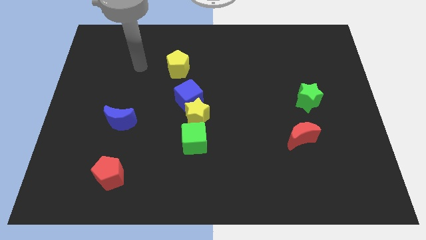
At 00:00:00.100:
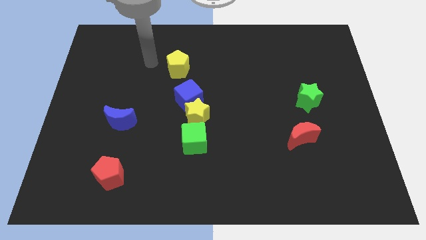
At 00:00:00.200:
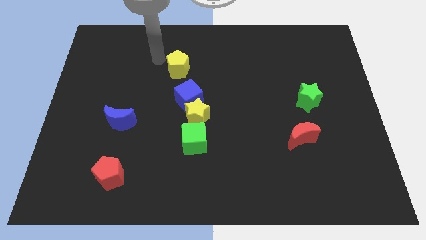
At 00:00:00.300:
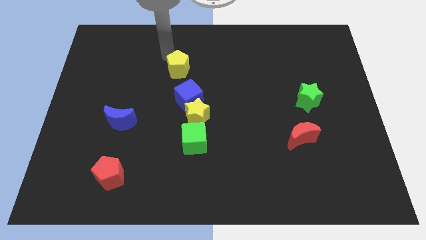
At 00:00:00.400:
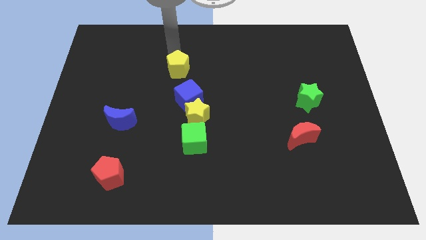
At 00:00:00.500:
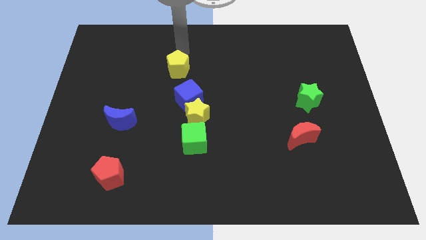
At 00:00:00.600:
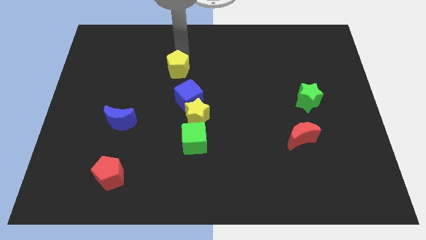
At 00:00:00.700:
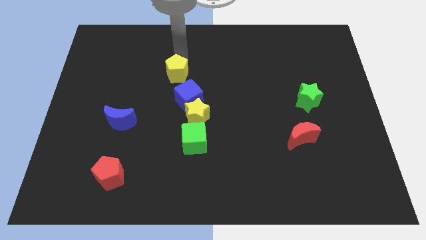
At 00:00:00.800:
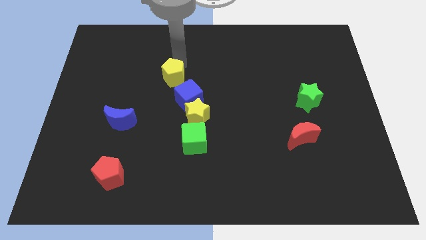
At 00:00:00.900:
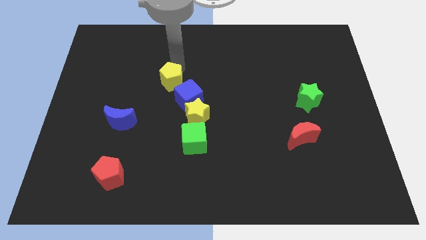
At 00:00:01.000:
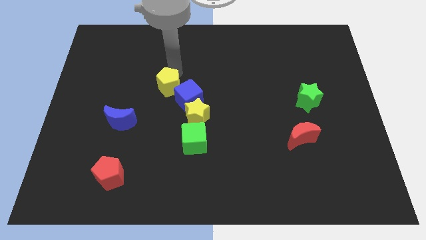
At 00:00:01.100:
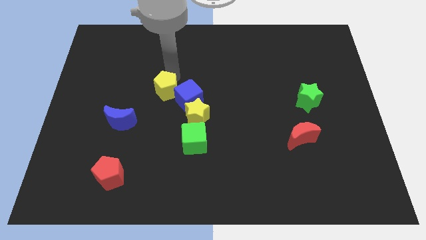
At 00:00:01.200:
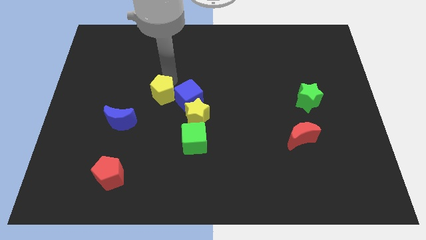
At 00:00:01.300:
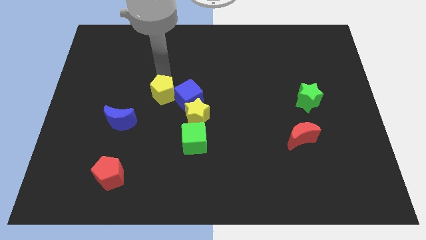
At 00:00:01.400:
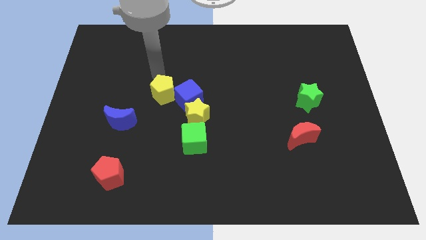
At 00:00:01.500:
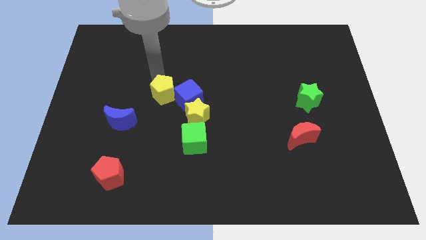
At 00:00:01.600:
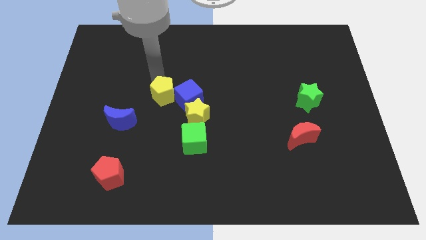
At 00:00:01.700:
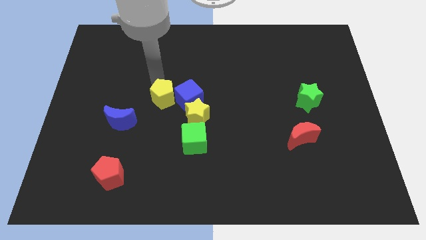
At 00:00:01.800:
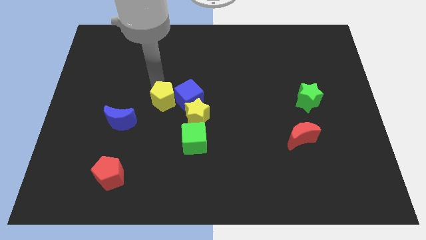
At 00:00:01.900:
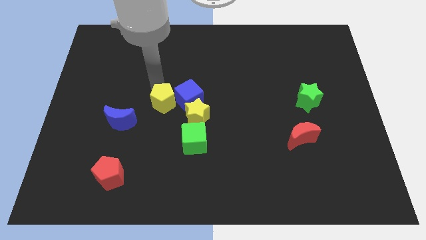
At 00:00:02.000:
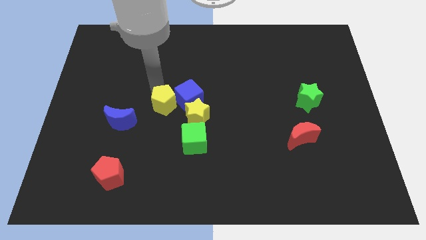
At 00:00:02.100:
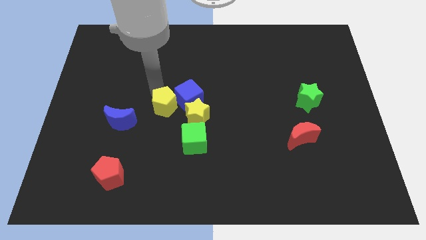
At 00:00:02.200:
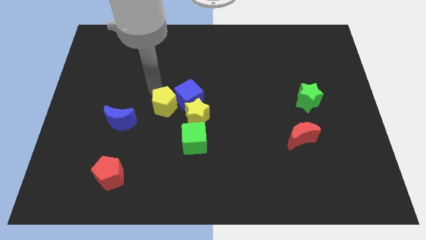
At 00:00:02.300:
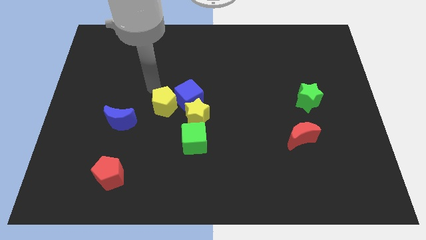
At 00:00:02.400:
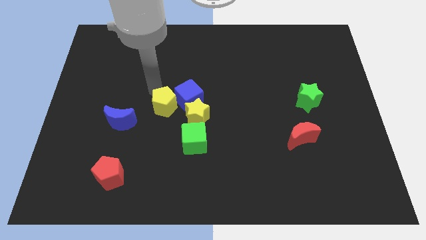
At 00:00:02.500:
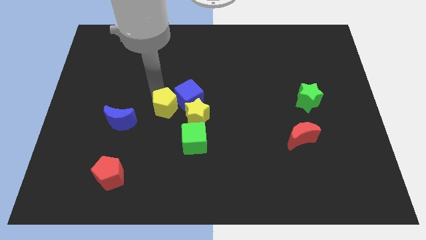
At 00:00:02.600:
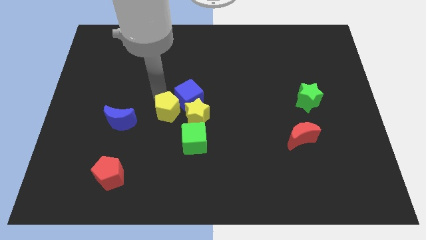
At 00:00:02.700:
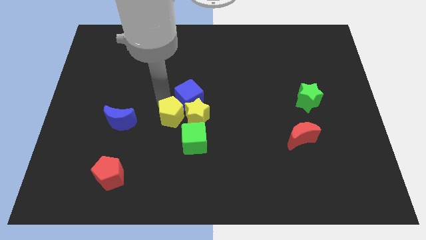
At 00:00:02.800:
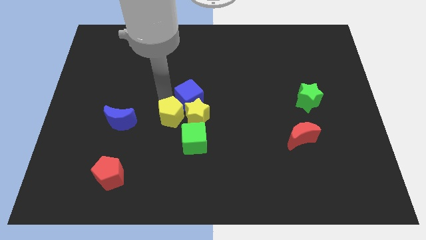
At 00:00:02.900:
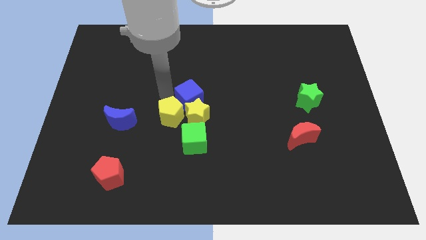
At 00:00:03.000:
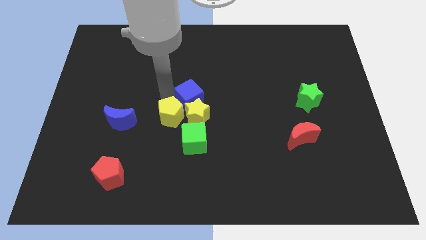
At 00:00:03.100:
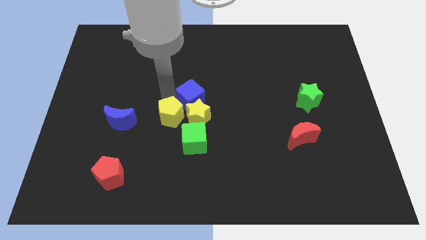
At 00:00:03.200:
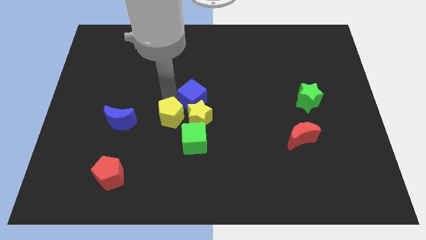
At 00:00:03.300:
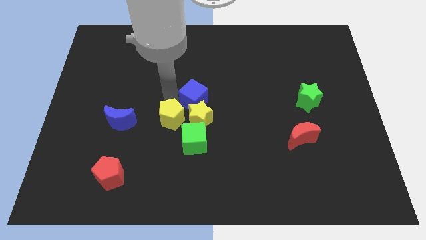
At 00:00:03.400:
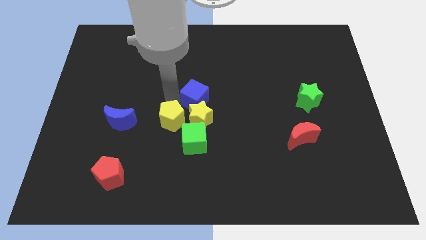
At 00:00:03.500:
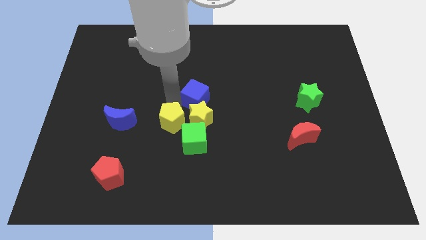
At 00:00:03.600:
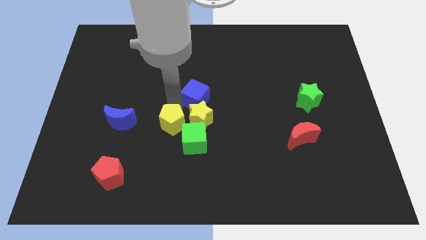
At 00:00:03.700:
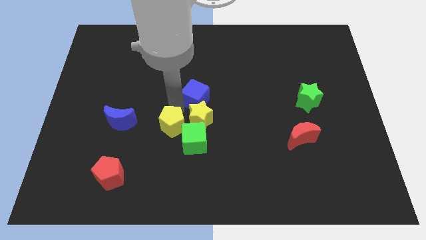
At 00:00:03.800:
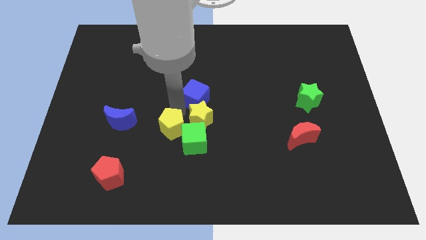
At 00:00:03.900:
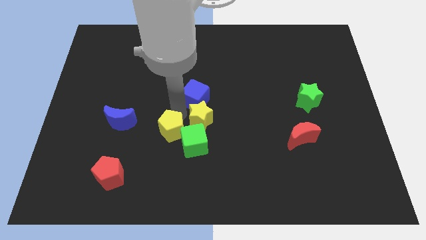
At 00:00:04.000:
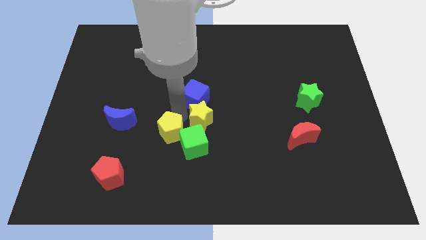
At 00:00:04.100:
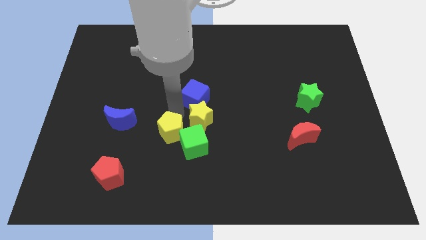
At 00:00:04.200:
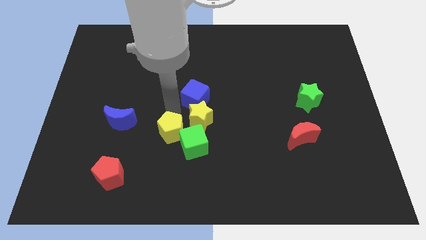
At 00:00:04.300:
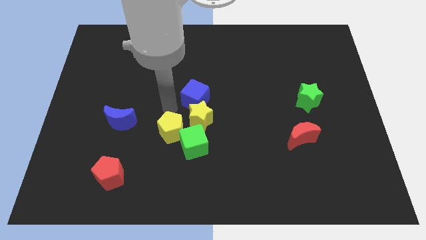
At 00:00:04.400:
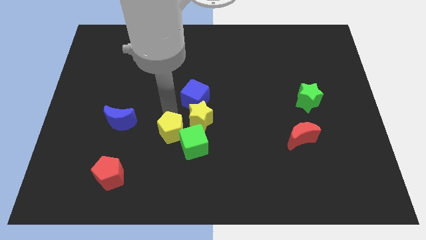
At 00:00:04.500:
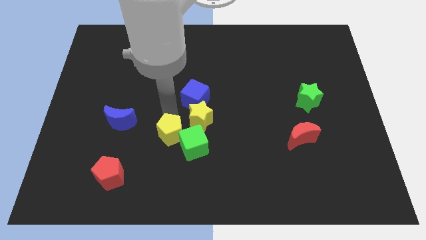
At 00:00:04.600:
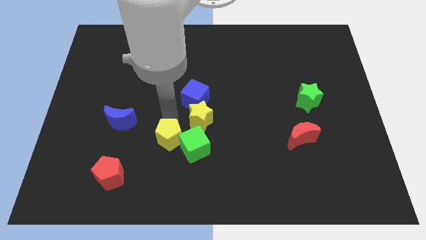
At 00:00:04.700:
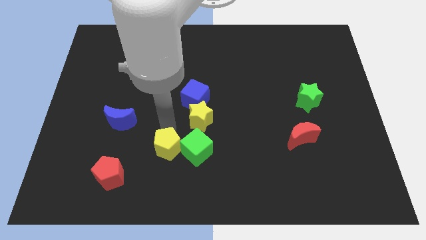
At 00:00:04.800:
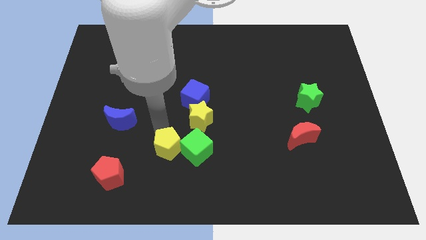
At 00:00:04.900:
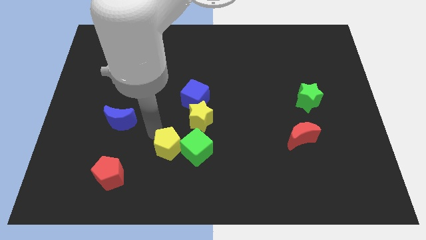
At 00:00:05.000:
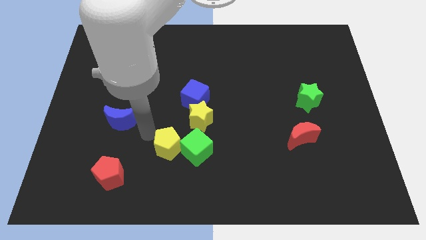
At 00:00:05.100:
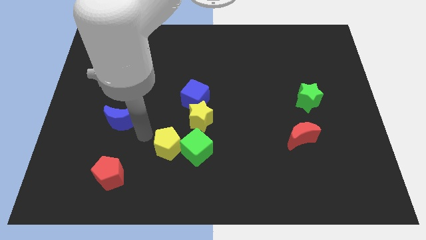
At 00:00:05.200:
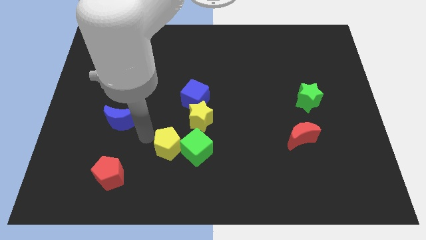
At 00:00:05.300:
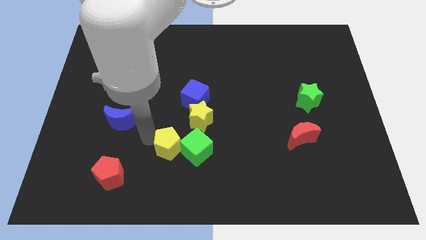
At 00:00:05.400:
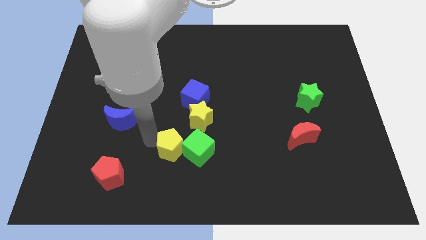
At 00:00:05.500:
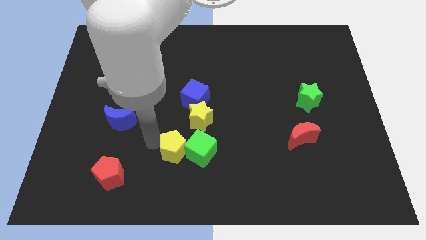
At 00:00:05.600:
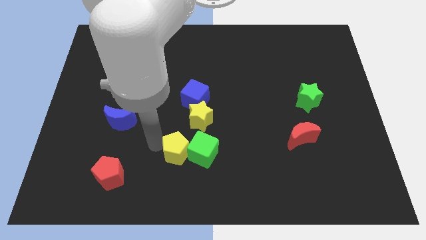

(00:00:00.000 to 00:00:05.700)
slide the yellow pentagon below the yellow star

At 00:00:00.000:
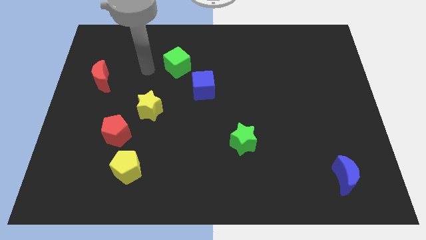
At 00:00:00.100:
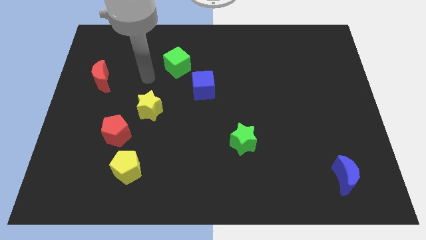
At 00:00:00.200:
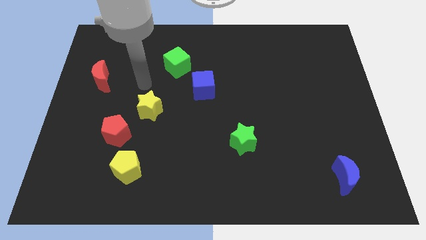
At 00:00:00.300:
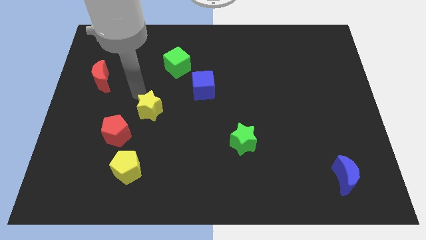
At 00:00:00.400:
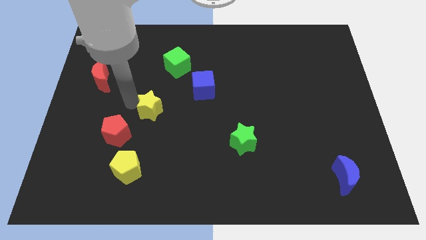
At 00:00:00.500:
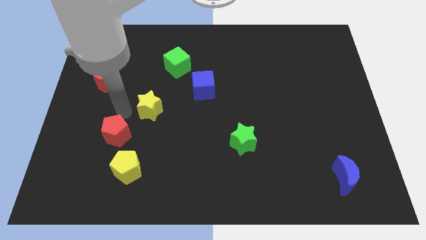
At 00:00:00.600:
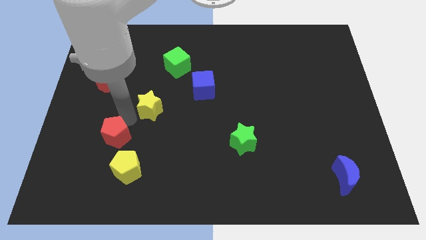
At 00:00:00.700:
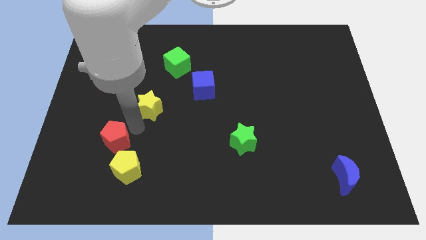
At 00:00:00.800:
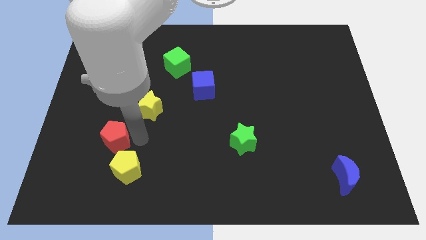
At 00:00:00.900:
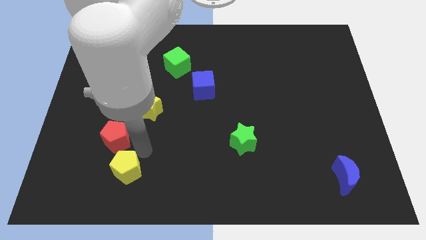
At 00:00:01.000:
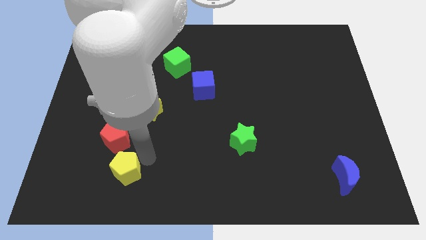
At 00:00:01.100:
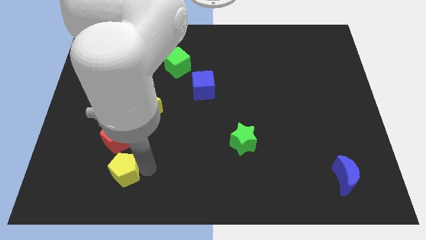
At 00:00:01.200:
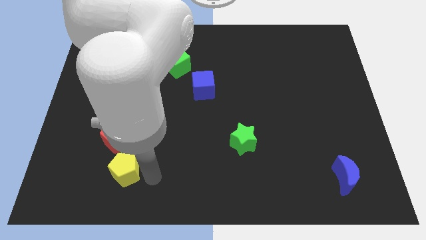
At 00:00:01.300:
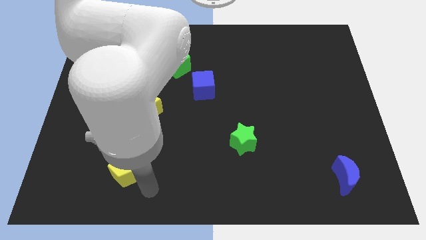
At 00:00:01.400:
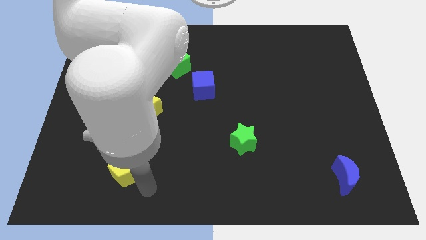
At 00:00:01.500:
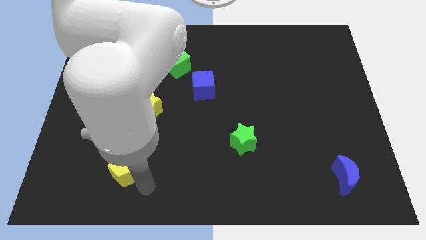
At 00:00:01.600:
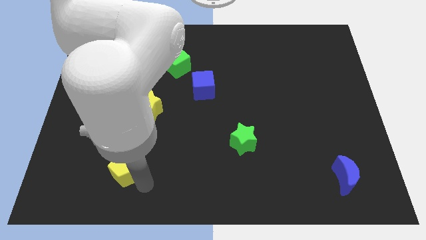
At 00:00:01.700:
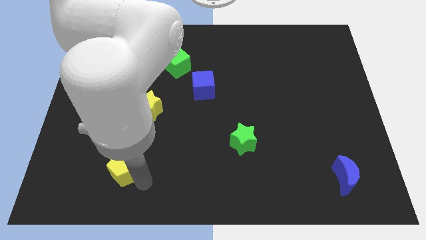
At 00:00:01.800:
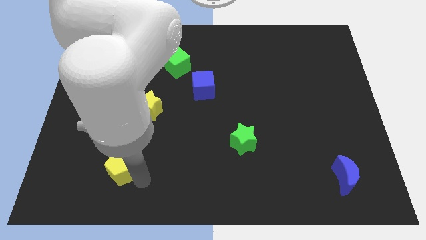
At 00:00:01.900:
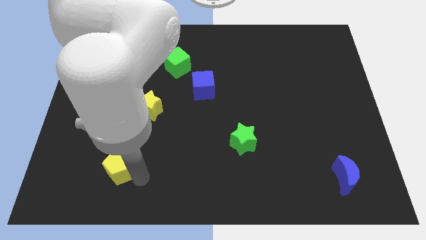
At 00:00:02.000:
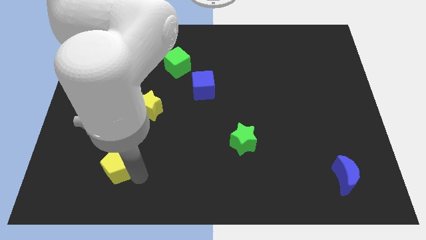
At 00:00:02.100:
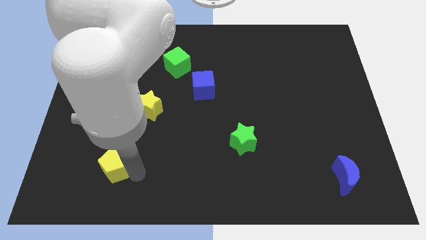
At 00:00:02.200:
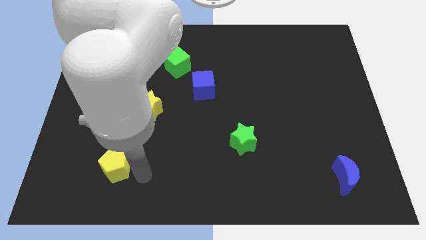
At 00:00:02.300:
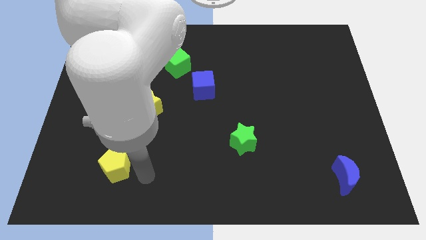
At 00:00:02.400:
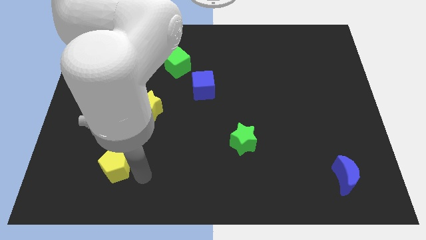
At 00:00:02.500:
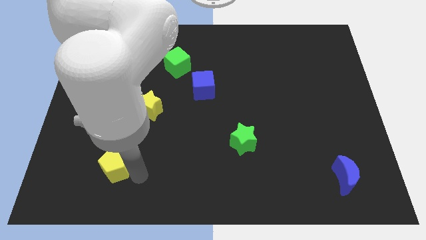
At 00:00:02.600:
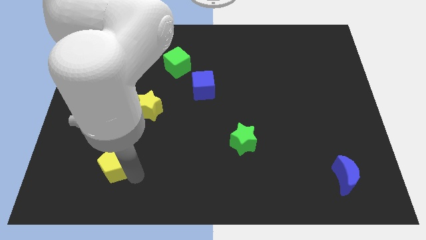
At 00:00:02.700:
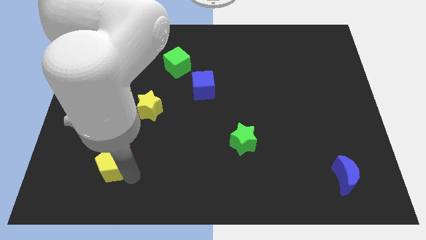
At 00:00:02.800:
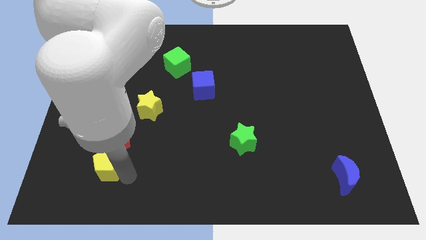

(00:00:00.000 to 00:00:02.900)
move the yellow pentagon to the bottom left of the red pentagon
